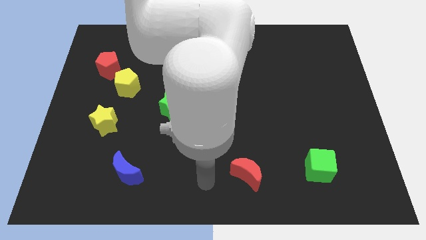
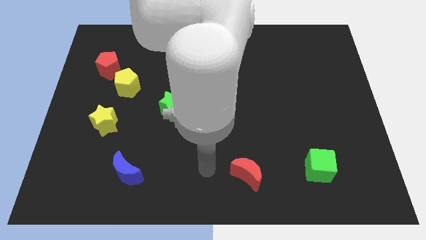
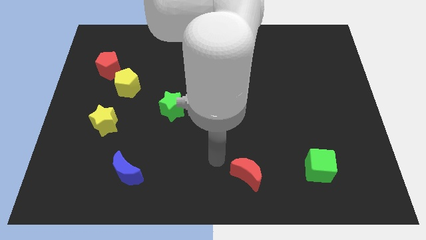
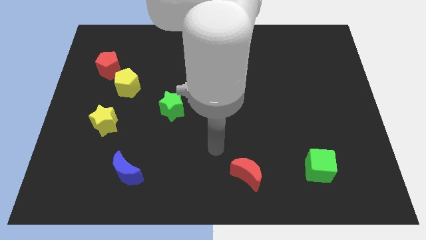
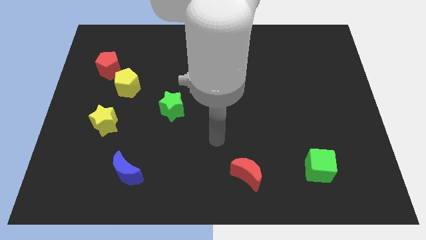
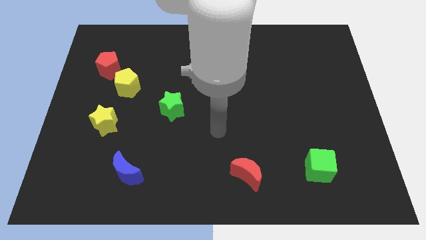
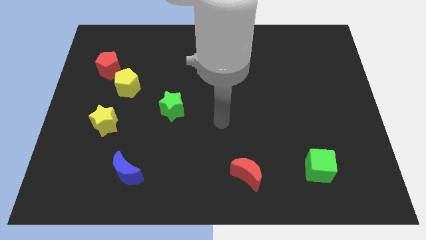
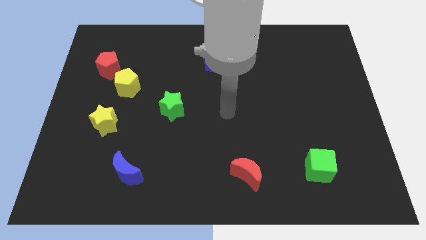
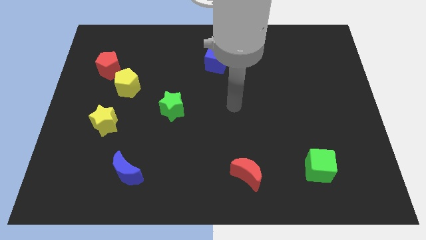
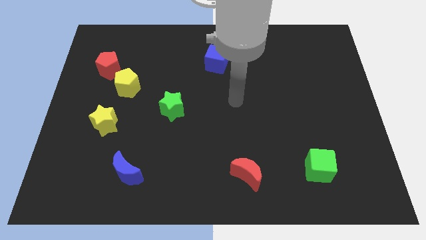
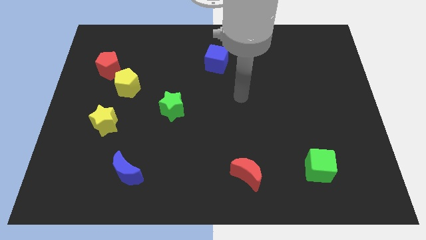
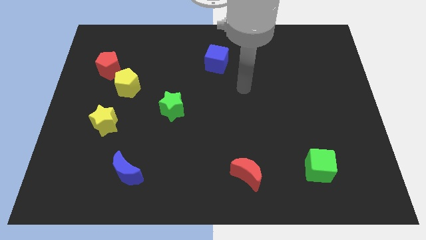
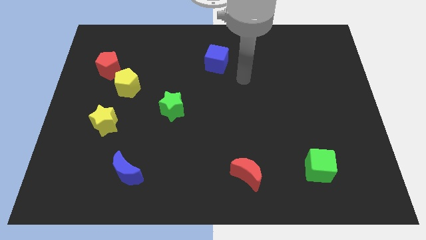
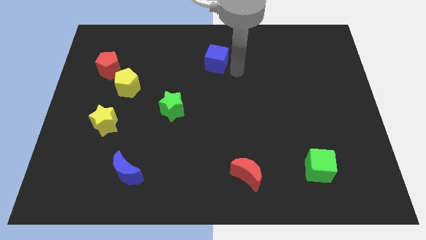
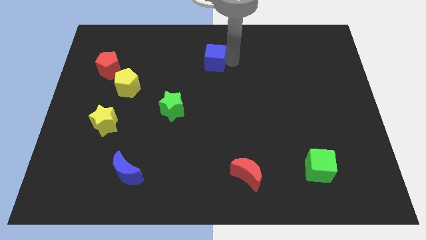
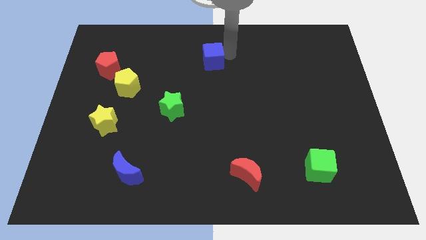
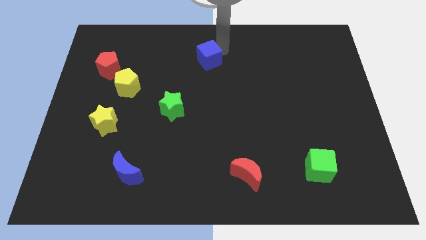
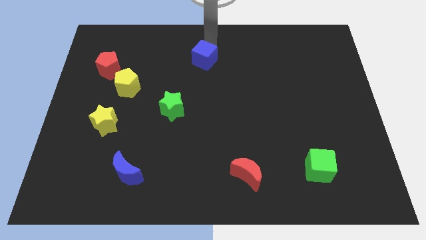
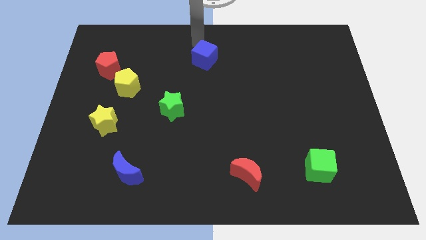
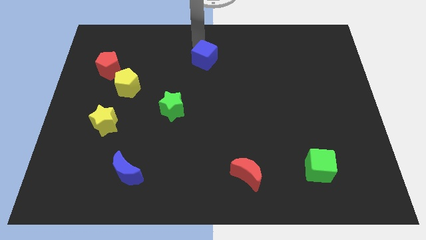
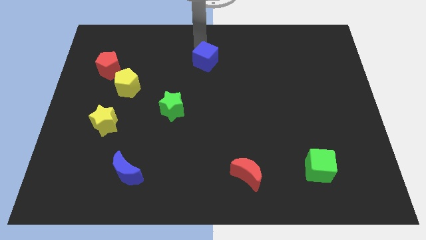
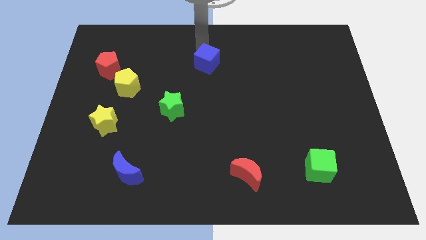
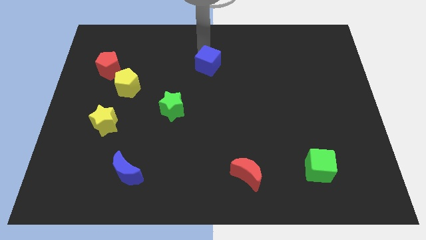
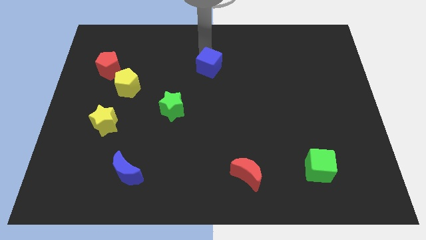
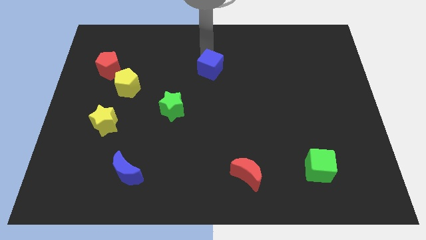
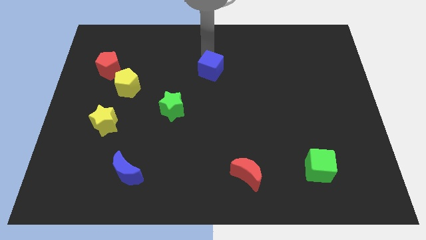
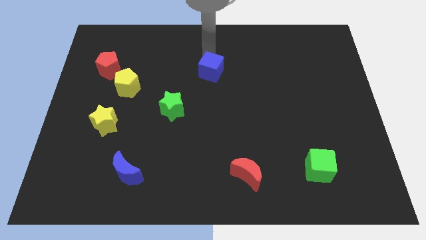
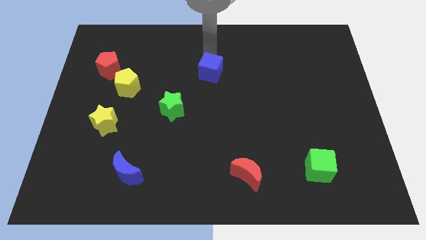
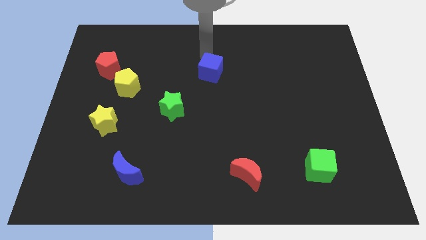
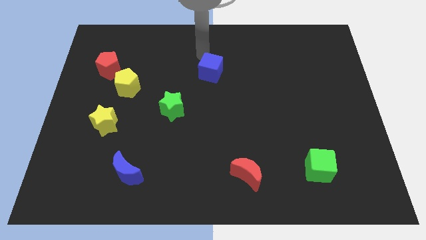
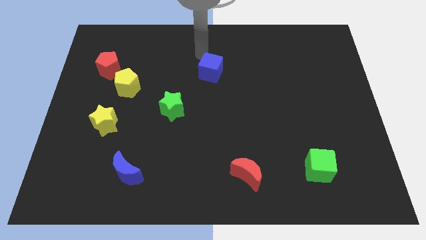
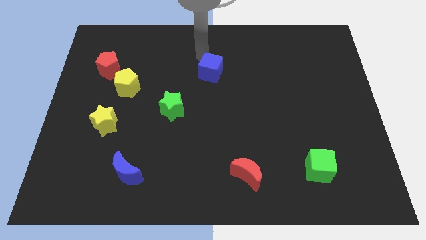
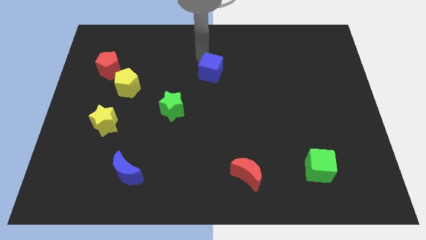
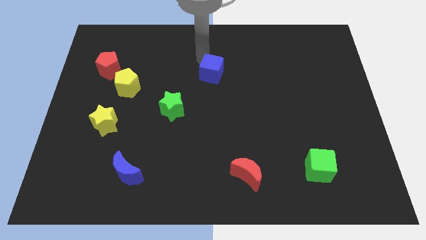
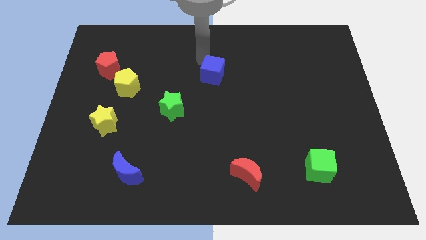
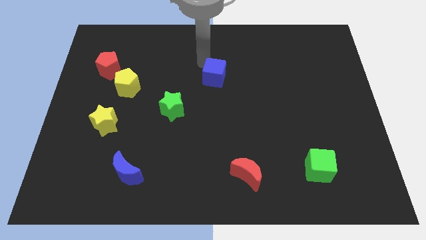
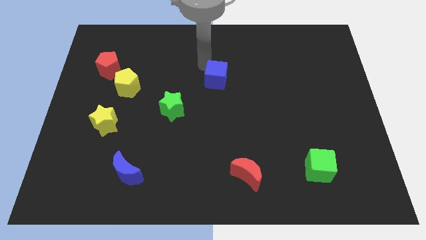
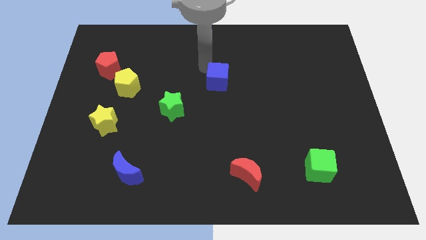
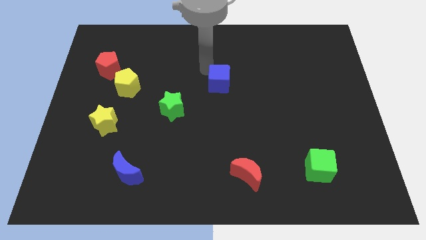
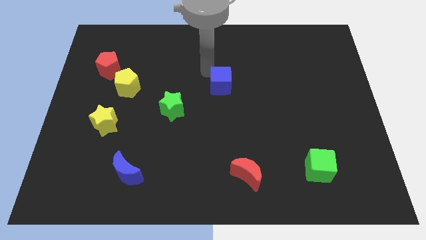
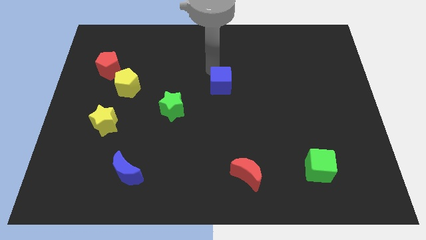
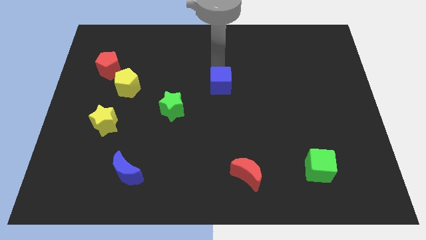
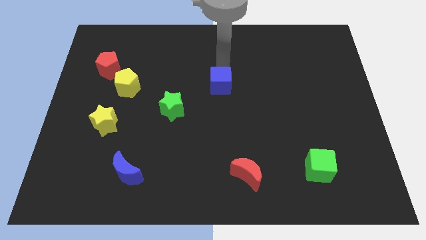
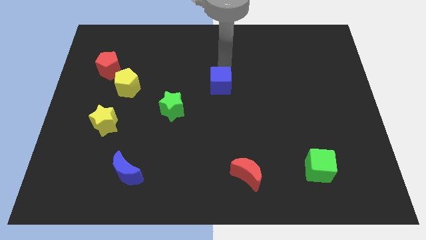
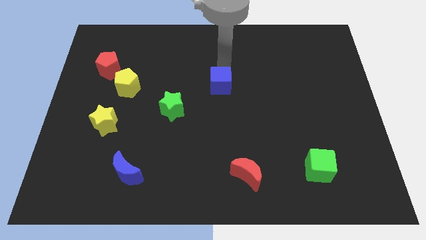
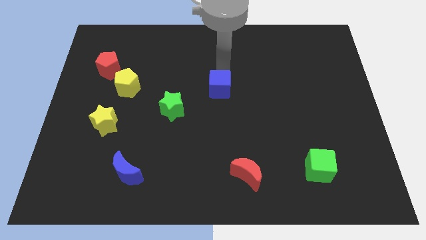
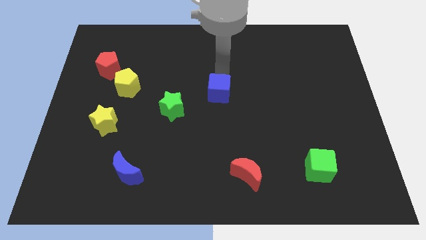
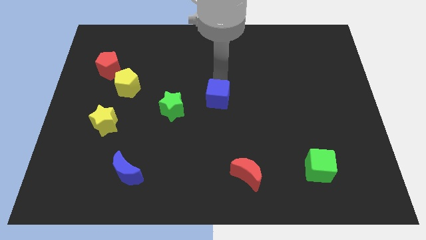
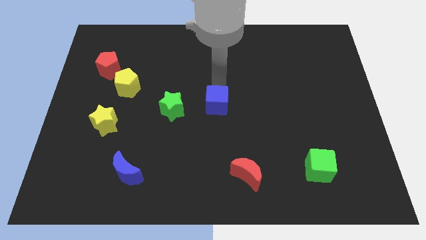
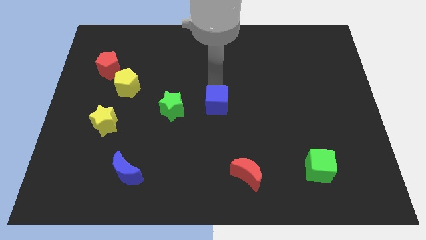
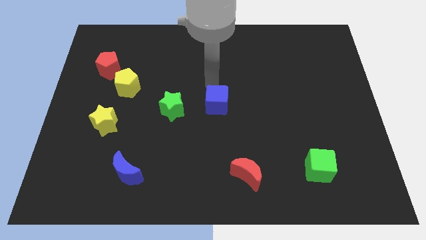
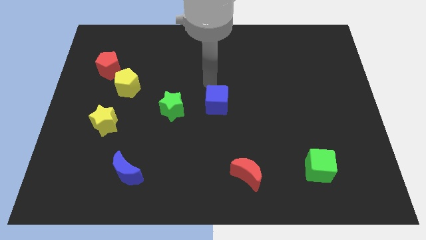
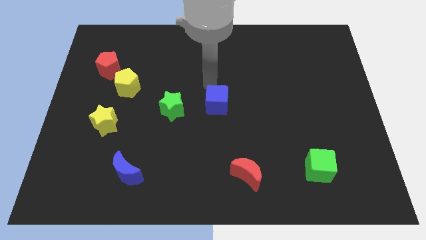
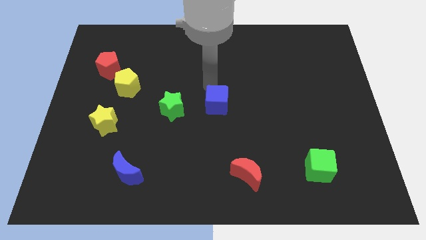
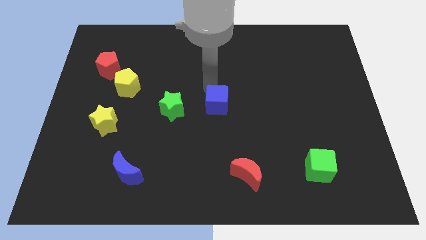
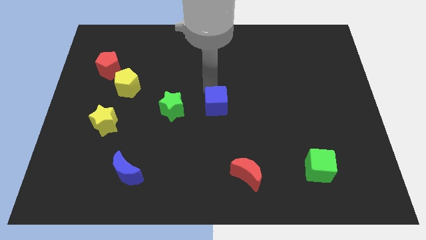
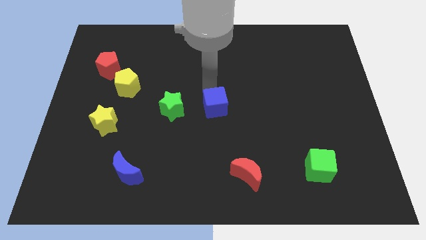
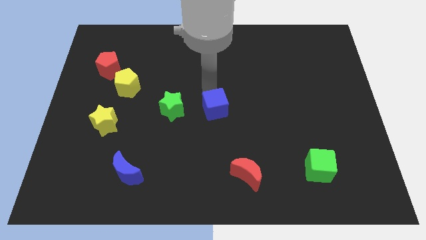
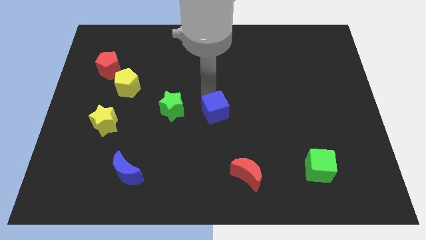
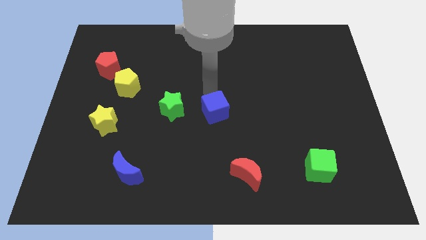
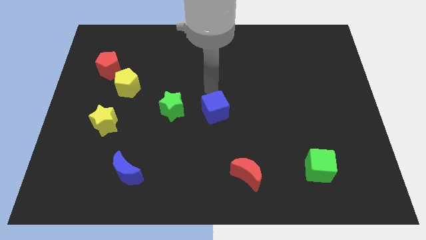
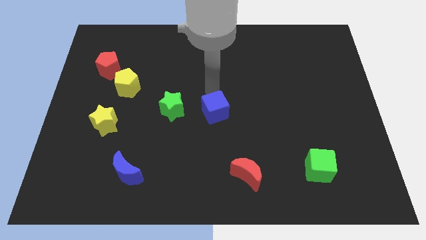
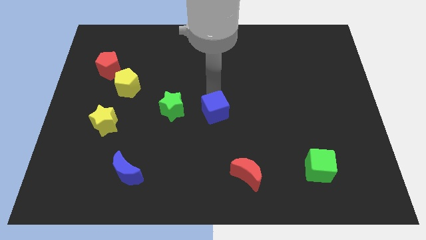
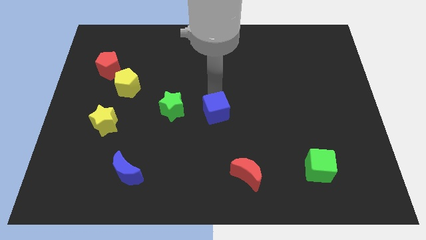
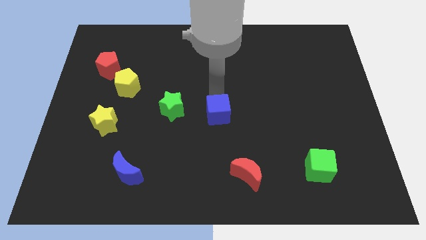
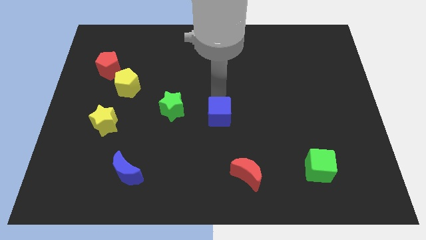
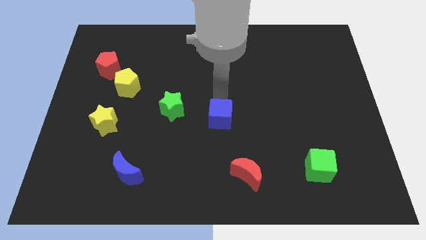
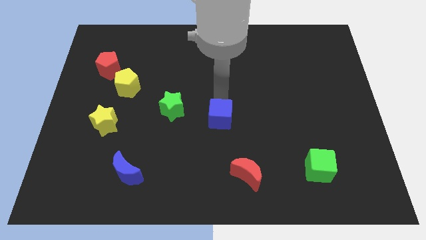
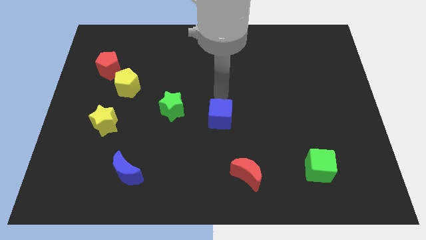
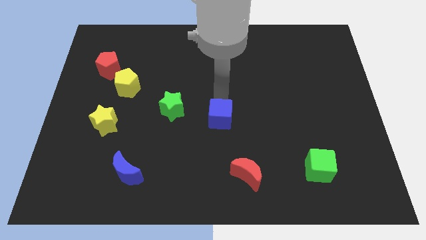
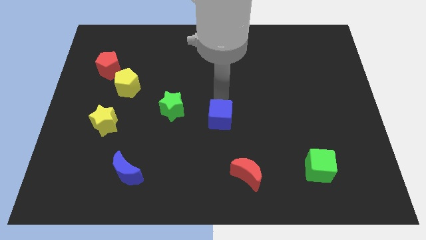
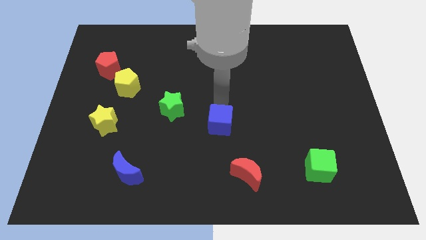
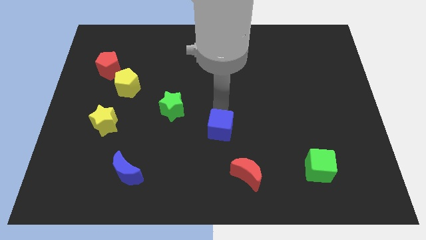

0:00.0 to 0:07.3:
move the blue cube downwards

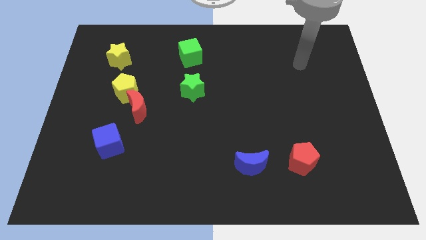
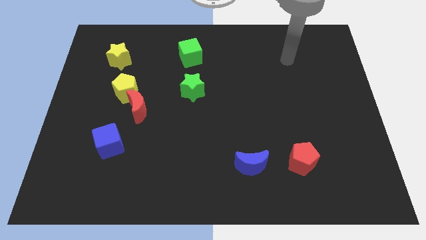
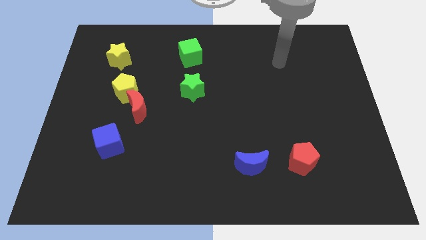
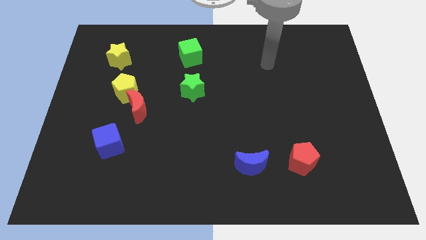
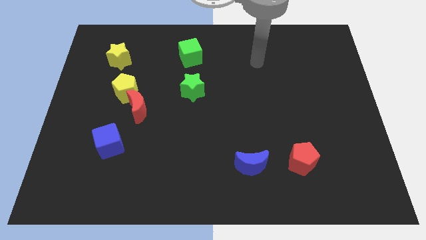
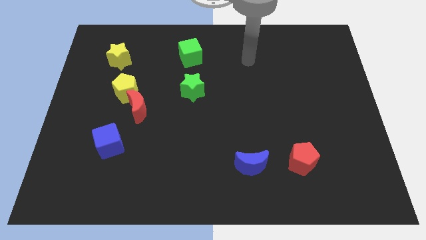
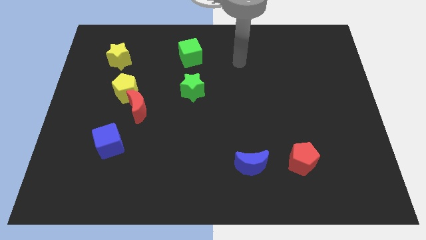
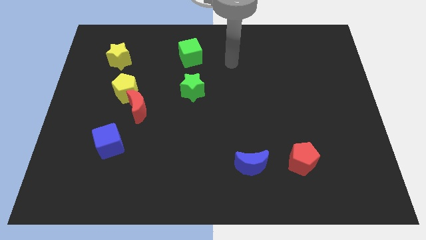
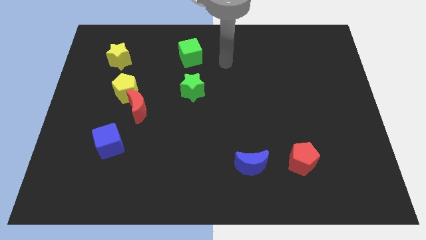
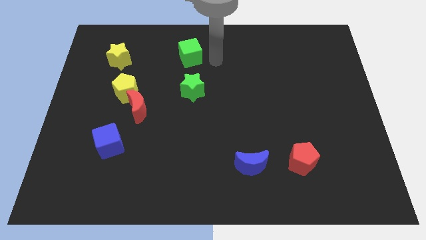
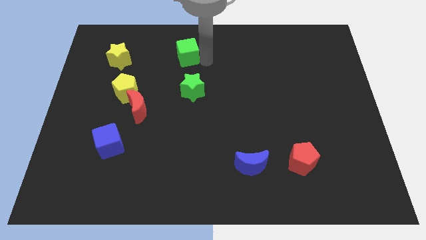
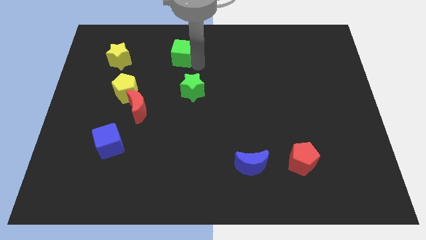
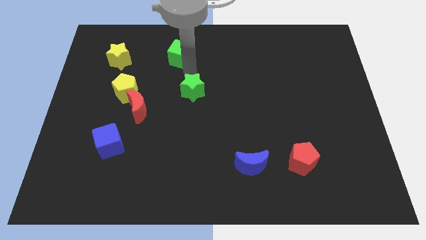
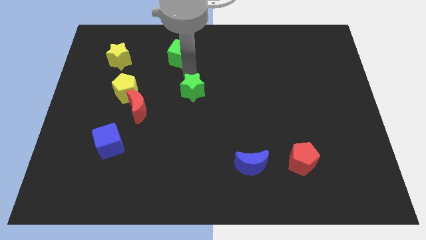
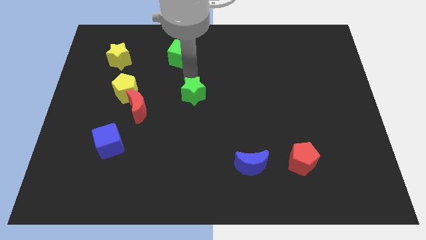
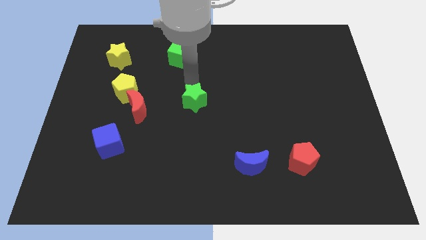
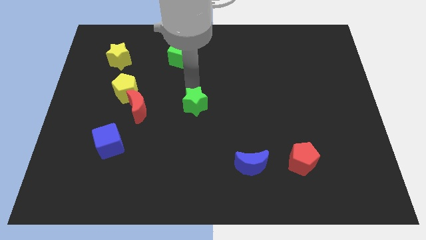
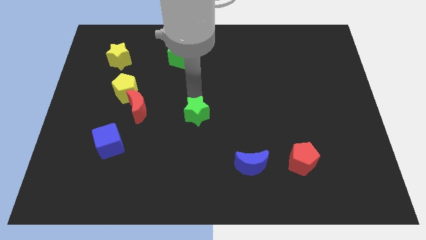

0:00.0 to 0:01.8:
move the green star a little bit downwards
